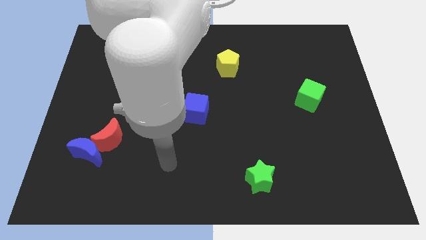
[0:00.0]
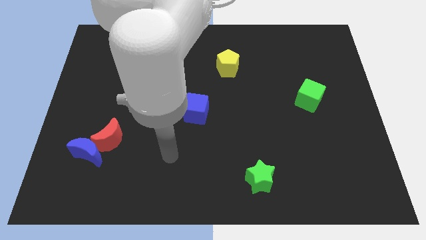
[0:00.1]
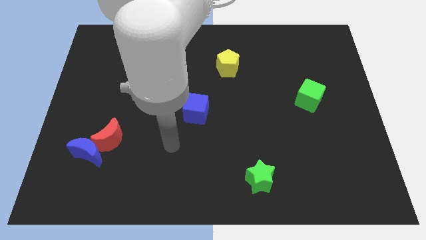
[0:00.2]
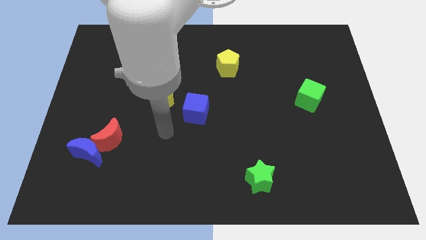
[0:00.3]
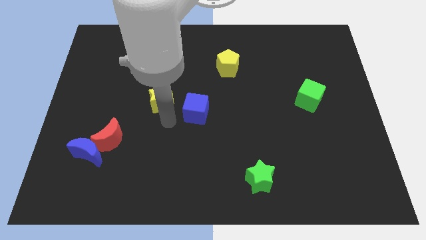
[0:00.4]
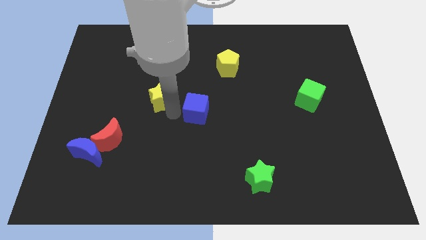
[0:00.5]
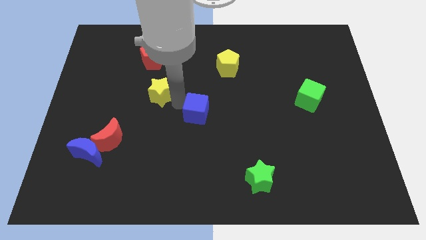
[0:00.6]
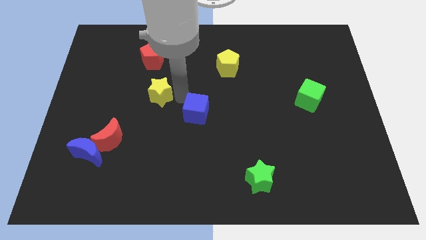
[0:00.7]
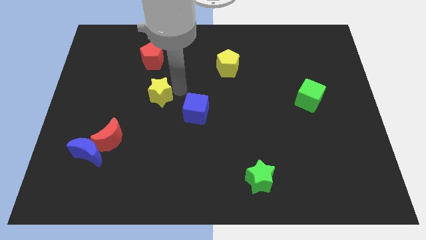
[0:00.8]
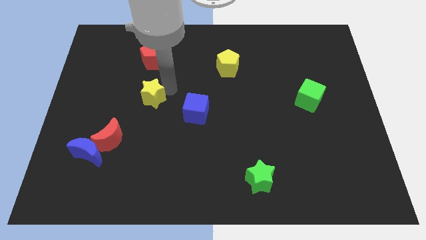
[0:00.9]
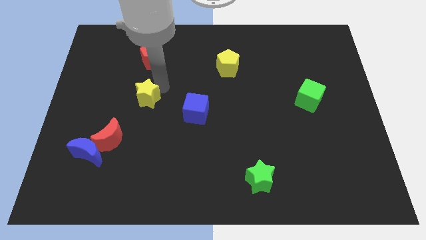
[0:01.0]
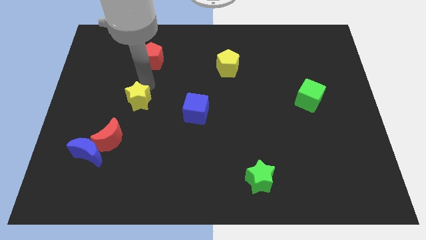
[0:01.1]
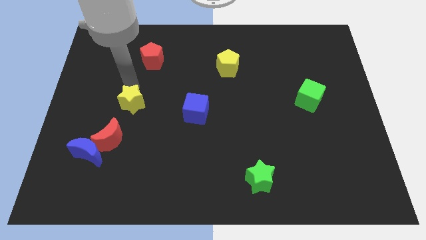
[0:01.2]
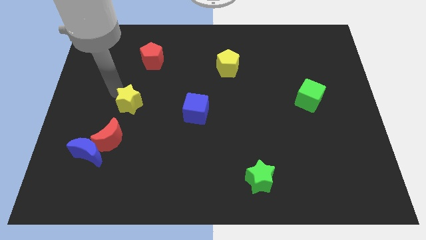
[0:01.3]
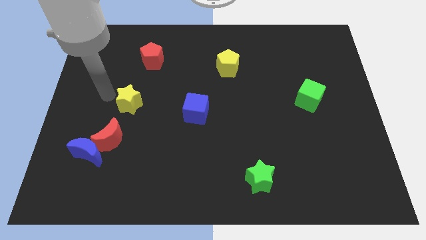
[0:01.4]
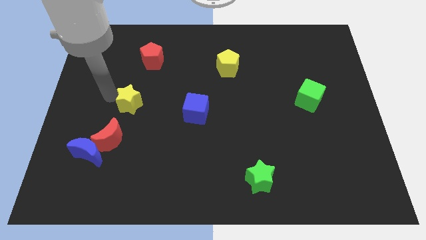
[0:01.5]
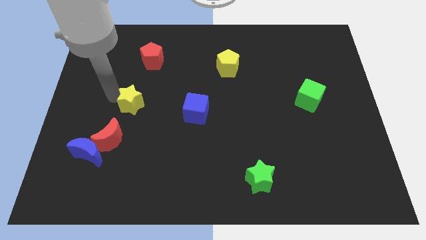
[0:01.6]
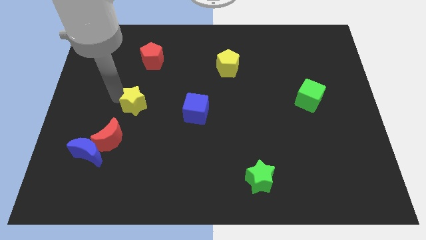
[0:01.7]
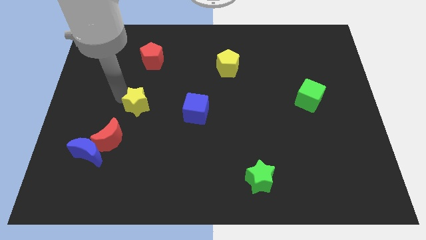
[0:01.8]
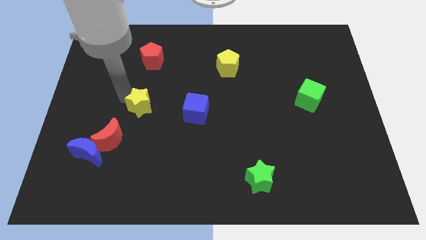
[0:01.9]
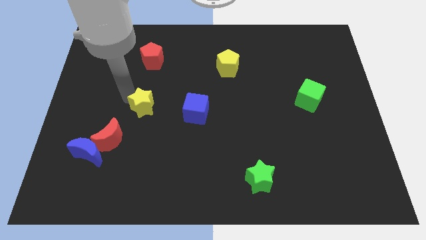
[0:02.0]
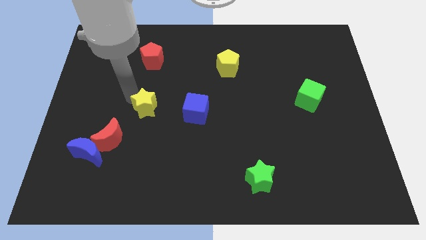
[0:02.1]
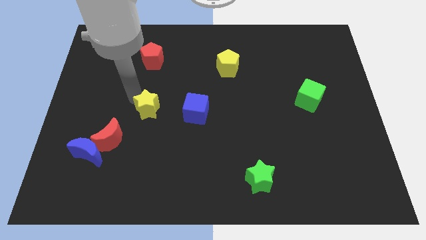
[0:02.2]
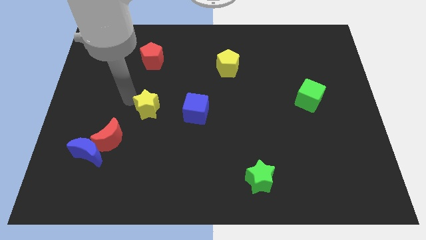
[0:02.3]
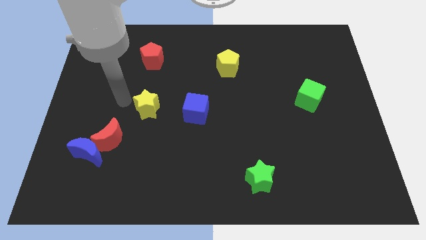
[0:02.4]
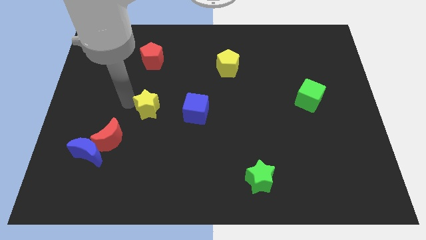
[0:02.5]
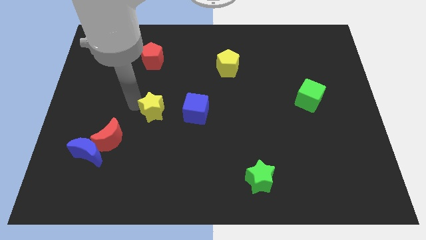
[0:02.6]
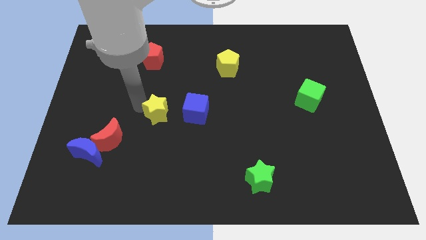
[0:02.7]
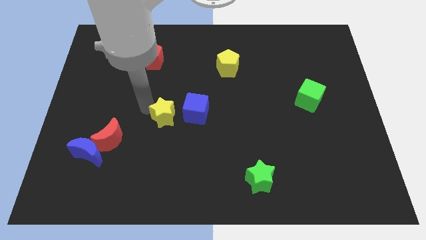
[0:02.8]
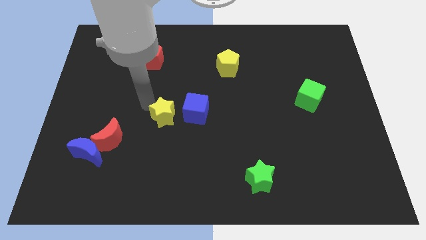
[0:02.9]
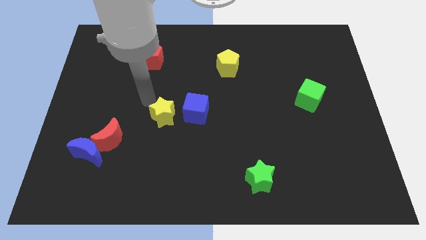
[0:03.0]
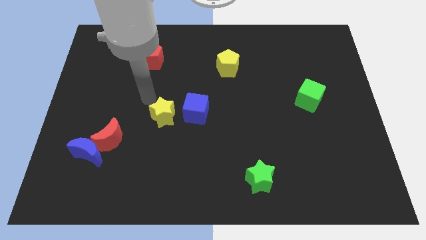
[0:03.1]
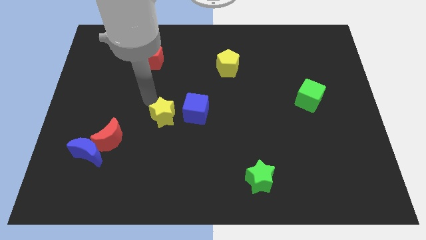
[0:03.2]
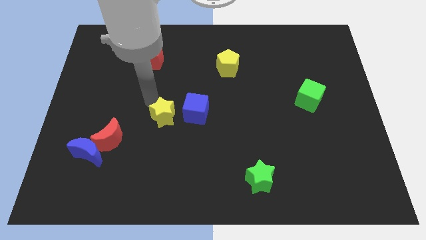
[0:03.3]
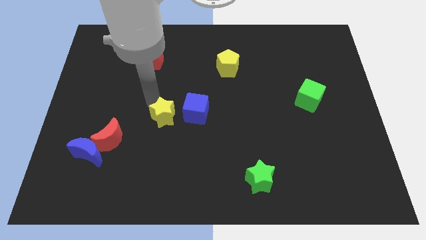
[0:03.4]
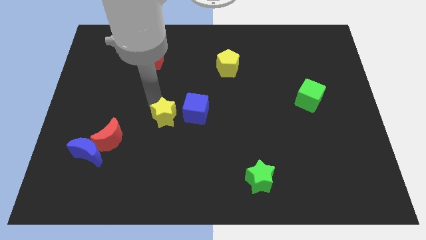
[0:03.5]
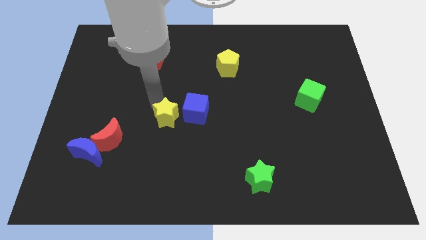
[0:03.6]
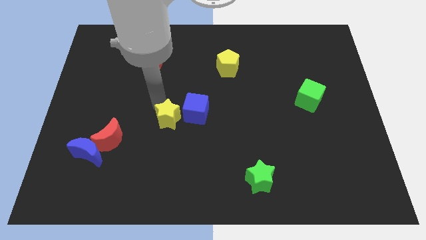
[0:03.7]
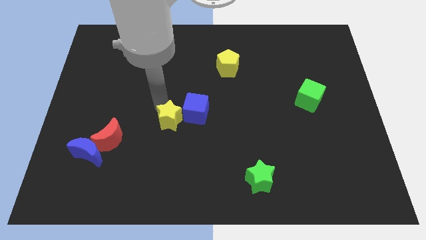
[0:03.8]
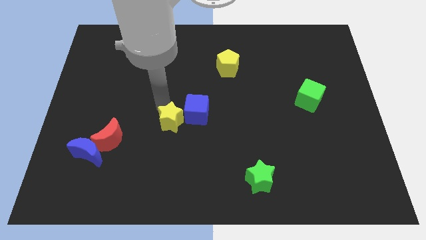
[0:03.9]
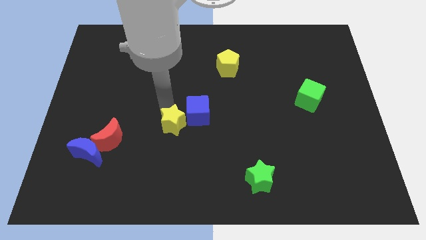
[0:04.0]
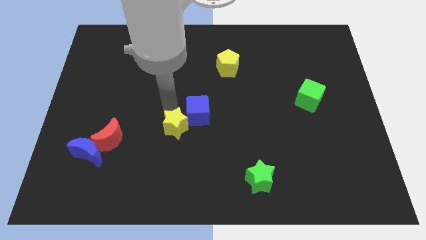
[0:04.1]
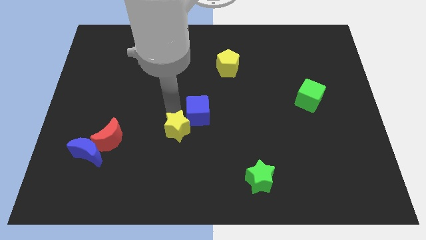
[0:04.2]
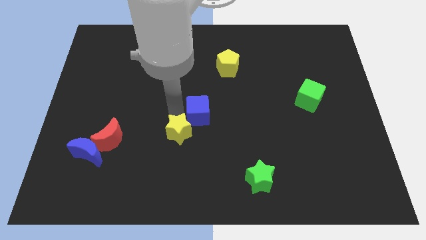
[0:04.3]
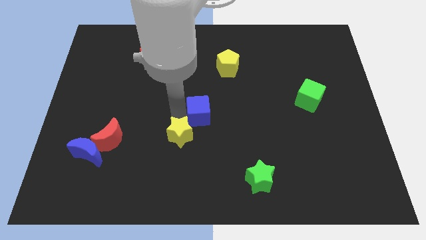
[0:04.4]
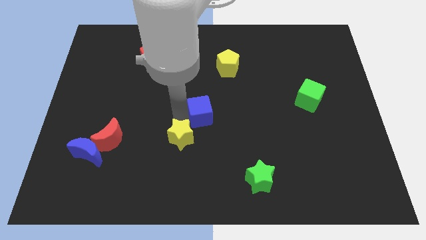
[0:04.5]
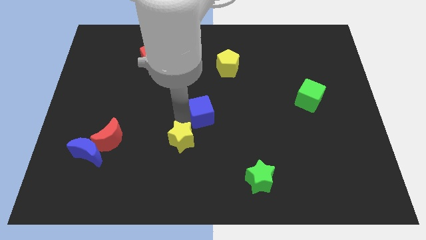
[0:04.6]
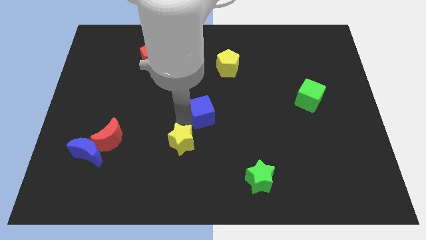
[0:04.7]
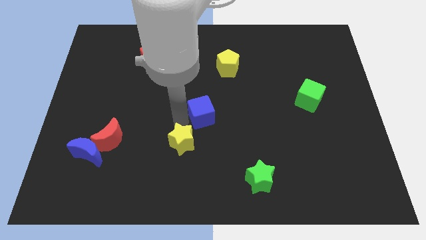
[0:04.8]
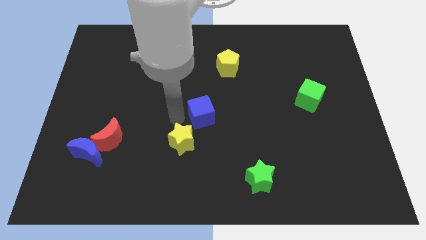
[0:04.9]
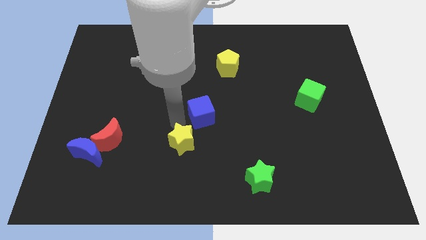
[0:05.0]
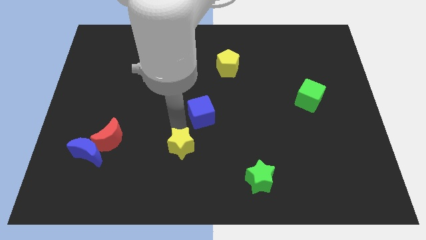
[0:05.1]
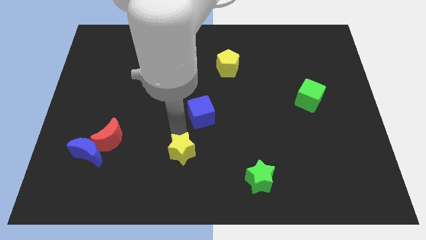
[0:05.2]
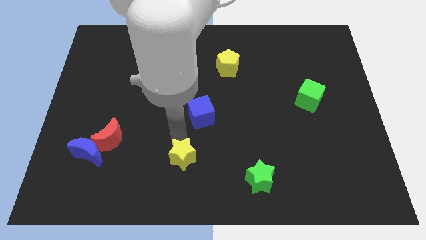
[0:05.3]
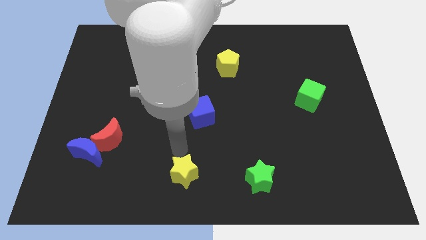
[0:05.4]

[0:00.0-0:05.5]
slide the yellow star to the bottom side

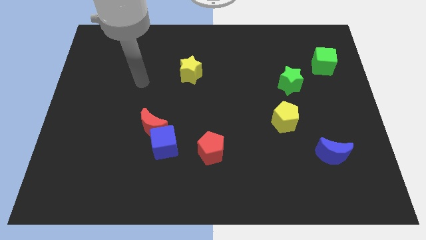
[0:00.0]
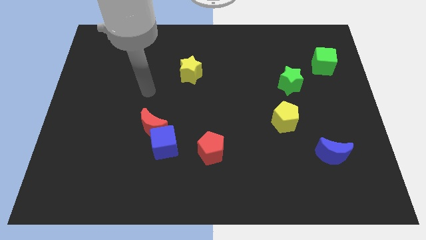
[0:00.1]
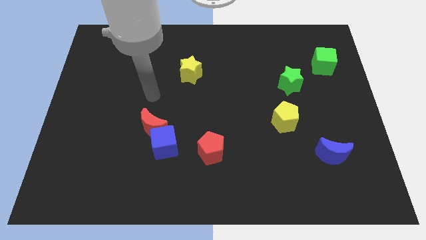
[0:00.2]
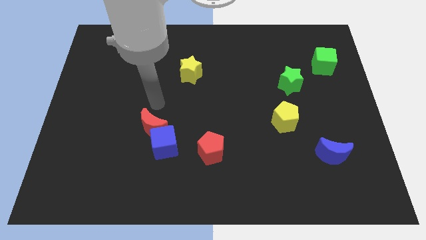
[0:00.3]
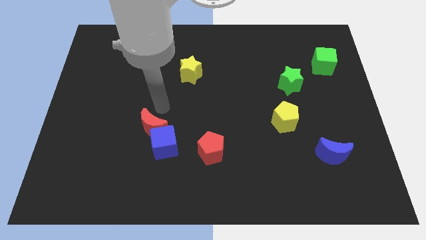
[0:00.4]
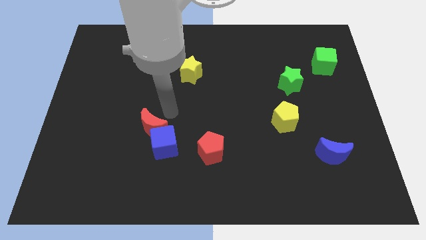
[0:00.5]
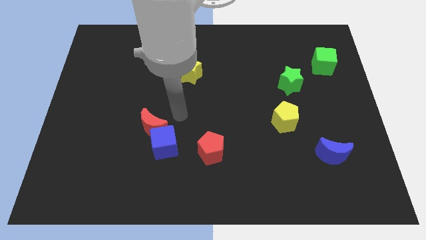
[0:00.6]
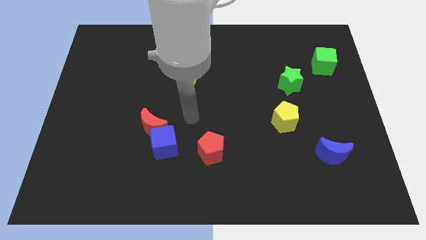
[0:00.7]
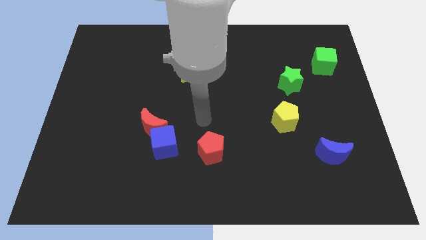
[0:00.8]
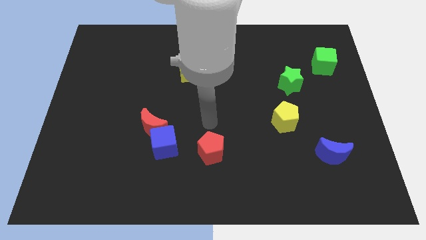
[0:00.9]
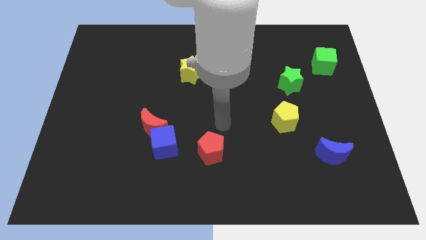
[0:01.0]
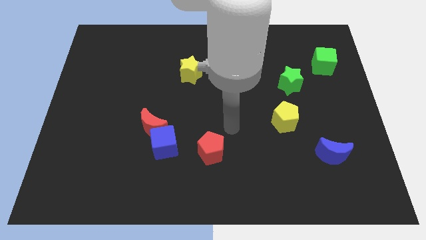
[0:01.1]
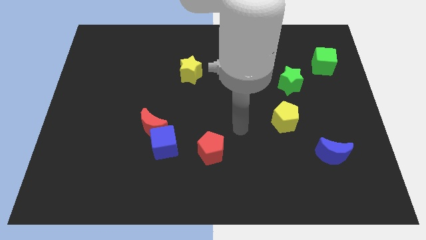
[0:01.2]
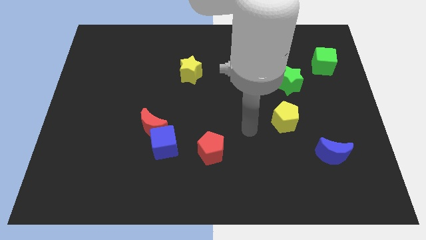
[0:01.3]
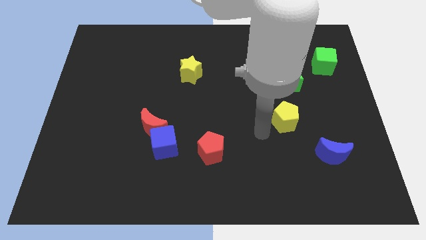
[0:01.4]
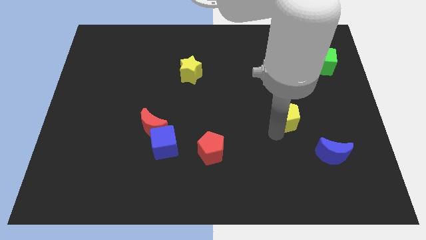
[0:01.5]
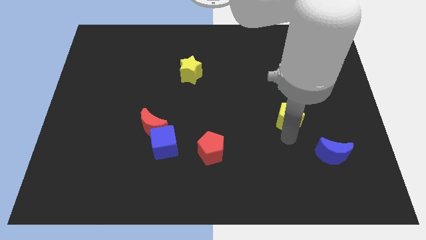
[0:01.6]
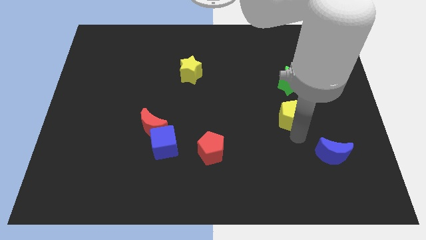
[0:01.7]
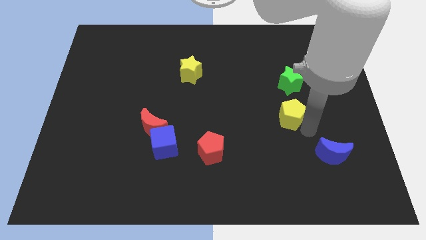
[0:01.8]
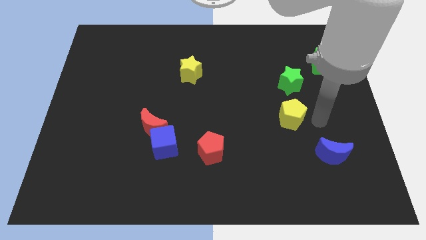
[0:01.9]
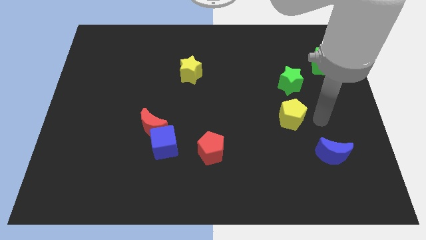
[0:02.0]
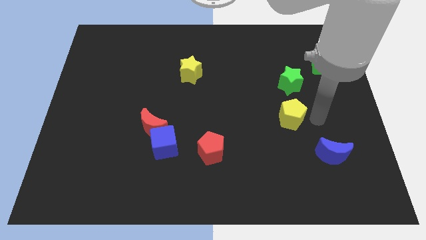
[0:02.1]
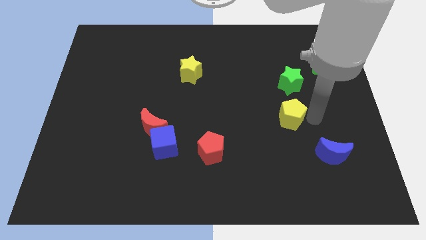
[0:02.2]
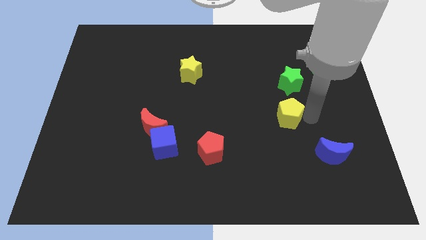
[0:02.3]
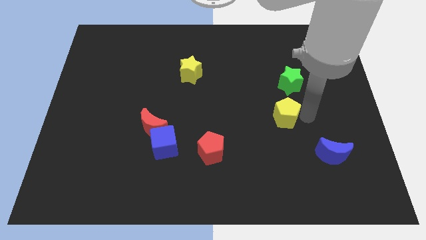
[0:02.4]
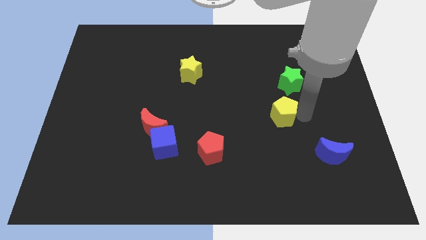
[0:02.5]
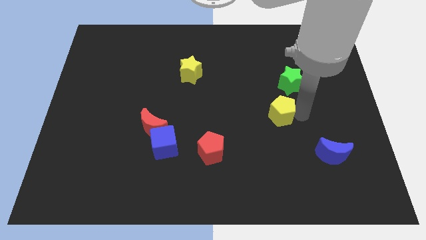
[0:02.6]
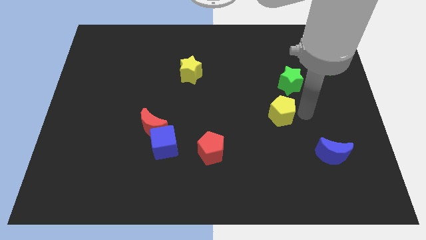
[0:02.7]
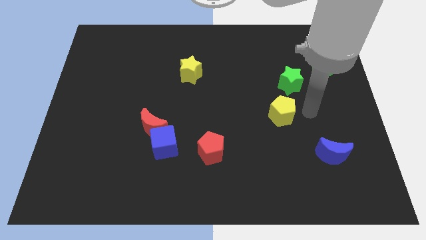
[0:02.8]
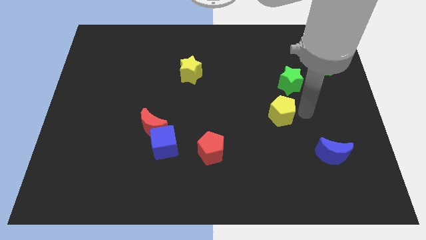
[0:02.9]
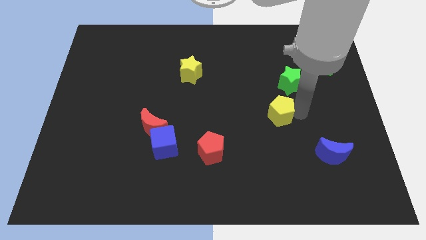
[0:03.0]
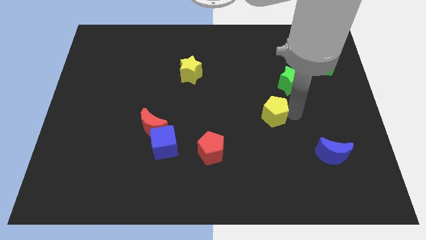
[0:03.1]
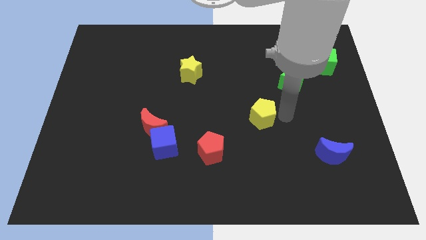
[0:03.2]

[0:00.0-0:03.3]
push the yellow pentagon to the center of the board
